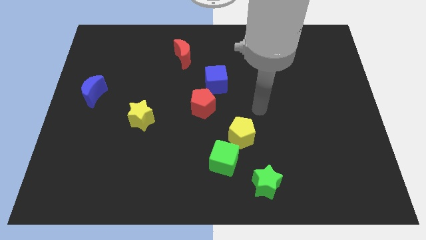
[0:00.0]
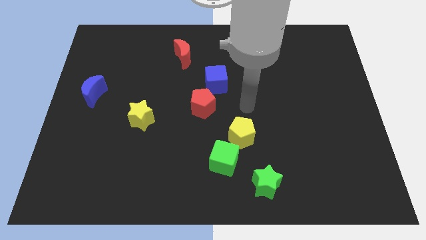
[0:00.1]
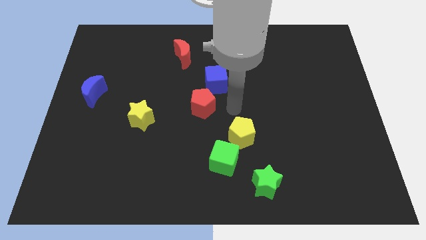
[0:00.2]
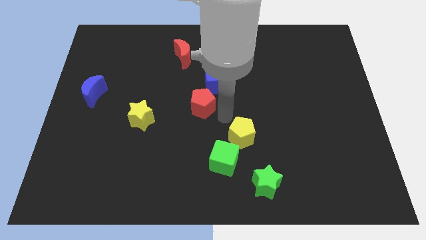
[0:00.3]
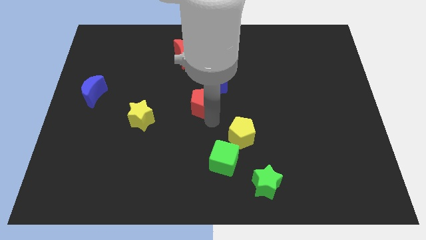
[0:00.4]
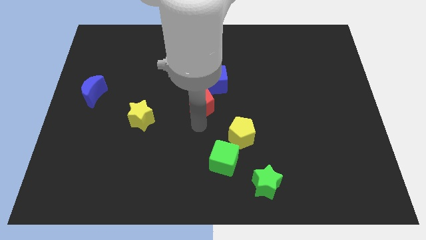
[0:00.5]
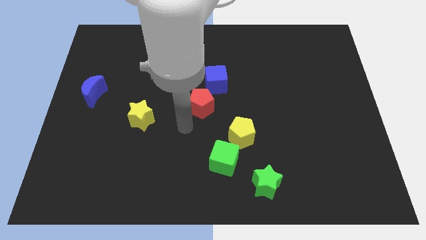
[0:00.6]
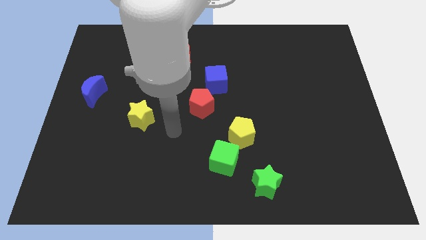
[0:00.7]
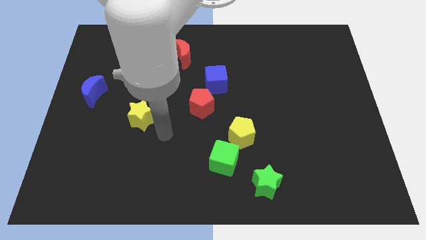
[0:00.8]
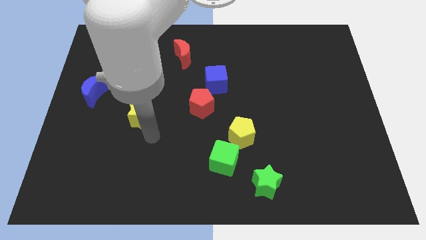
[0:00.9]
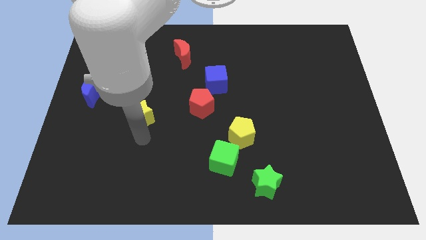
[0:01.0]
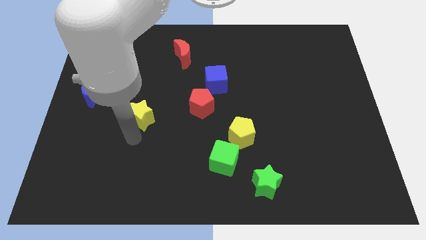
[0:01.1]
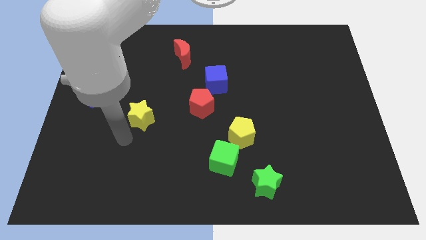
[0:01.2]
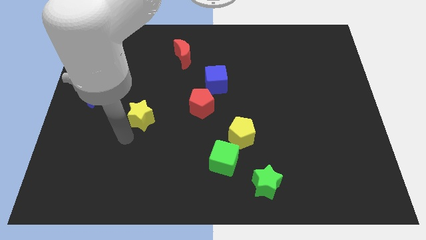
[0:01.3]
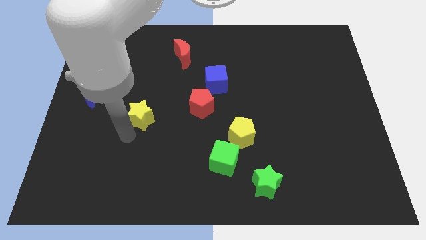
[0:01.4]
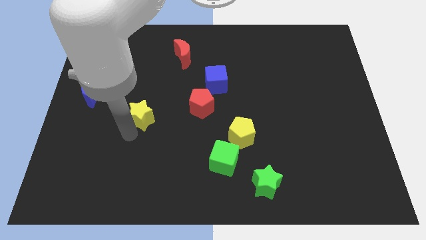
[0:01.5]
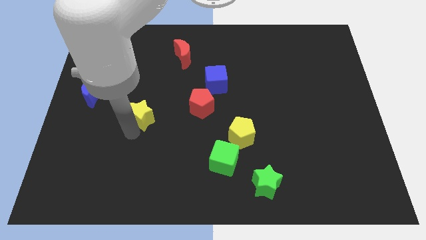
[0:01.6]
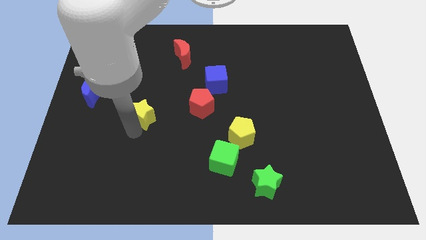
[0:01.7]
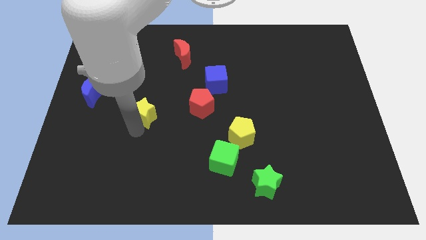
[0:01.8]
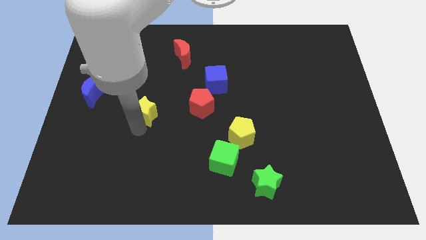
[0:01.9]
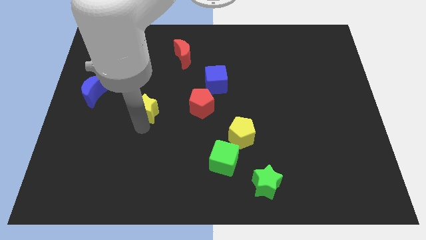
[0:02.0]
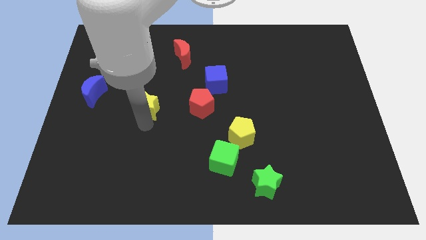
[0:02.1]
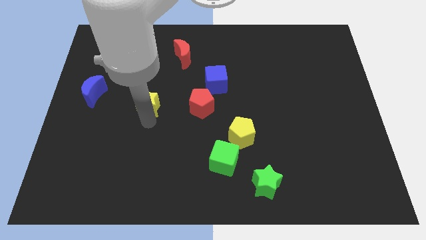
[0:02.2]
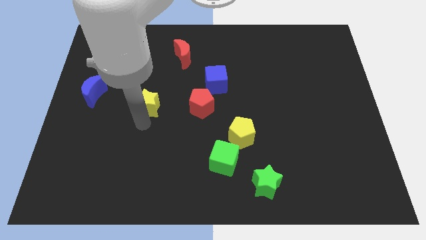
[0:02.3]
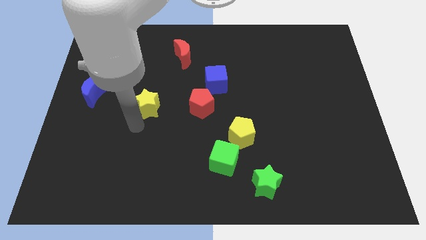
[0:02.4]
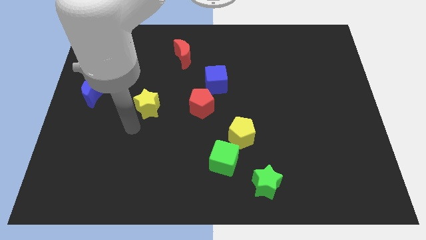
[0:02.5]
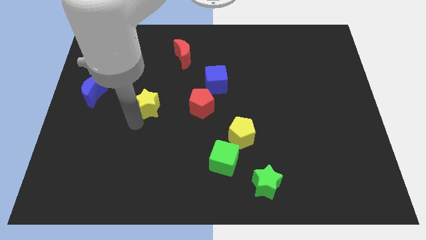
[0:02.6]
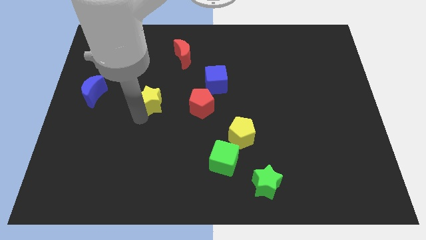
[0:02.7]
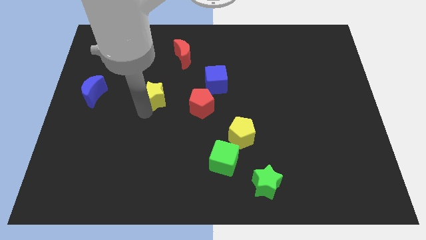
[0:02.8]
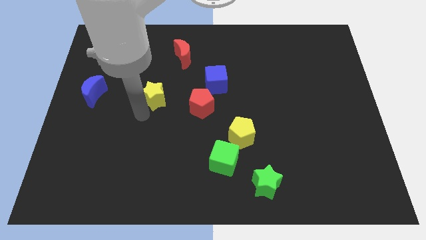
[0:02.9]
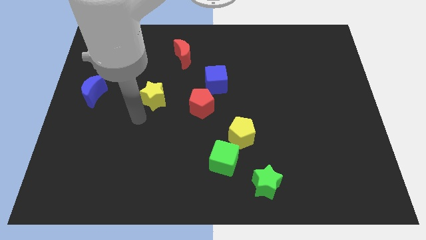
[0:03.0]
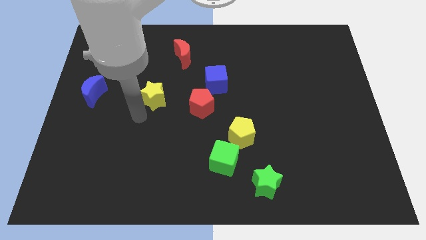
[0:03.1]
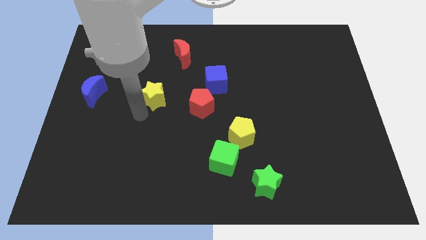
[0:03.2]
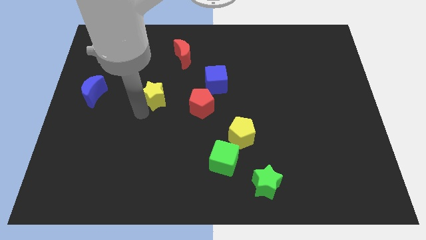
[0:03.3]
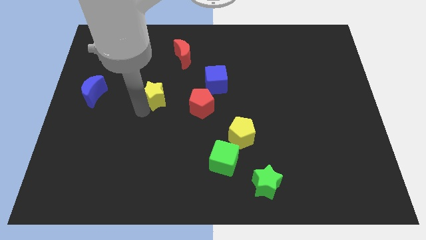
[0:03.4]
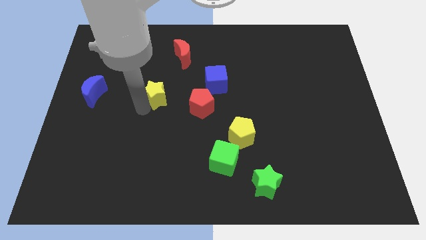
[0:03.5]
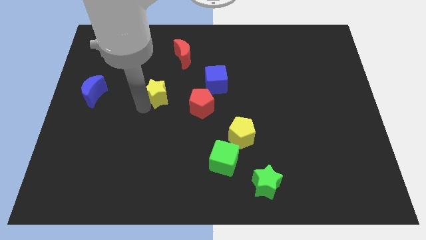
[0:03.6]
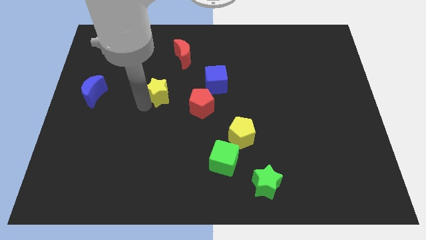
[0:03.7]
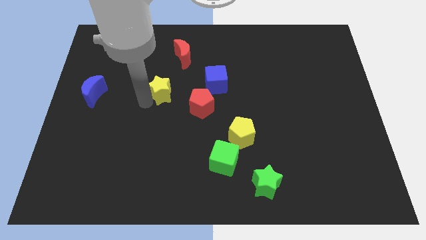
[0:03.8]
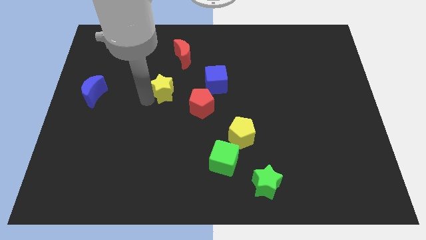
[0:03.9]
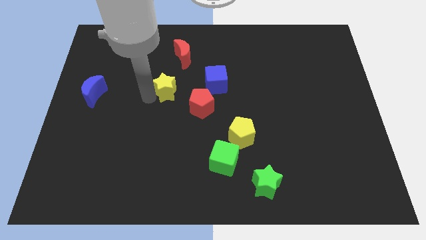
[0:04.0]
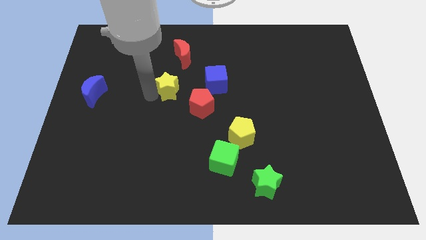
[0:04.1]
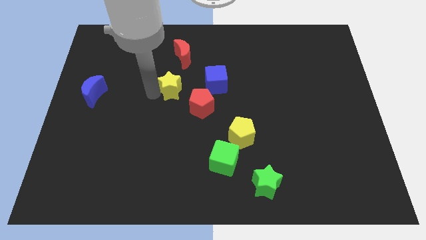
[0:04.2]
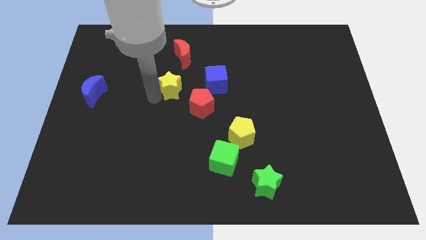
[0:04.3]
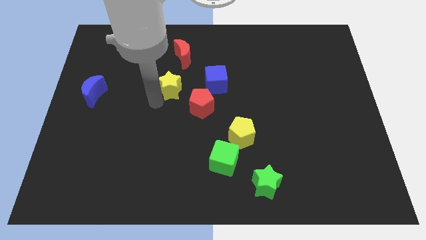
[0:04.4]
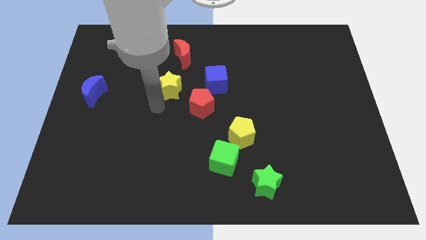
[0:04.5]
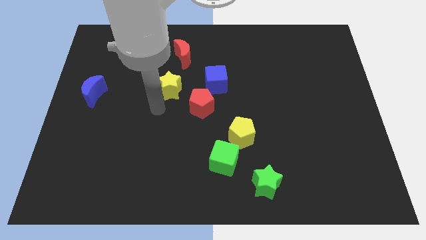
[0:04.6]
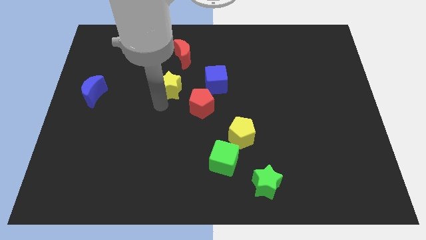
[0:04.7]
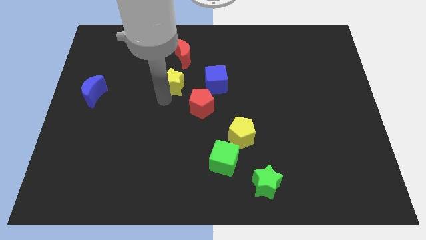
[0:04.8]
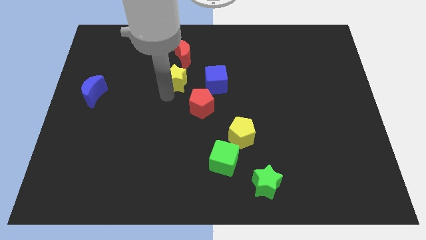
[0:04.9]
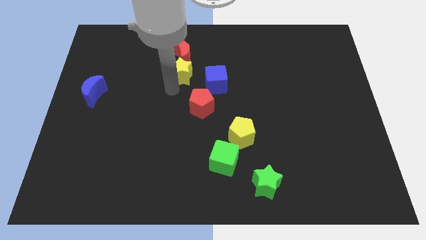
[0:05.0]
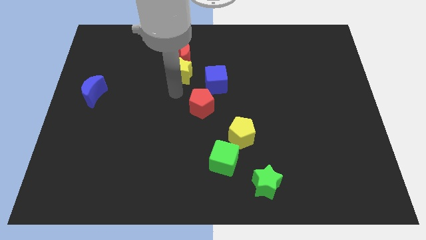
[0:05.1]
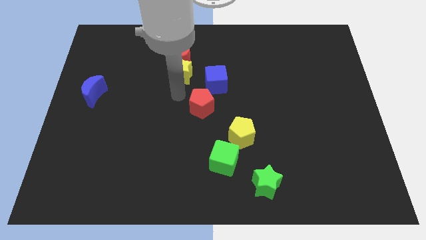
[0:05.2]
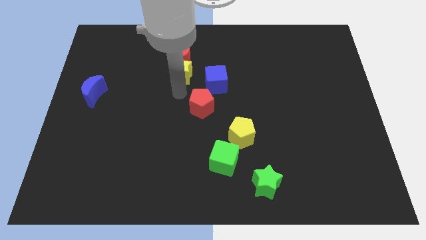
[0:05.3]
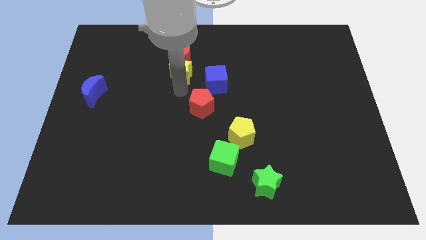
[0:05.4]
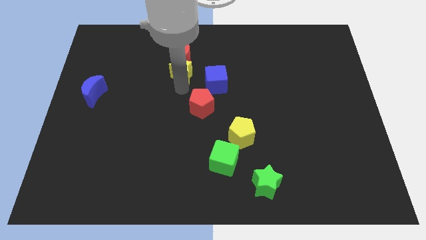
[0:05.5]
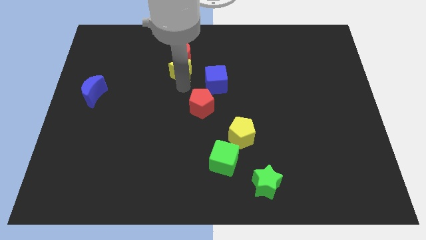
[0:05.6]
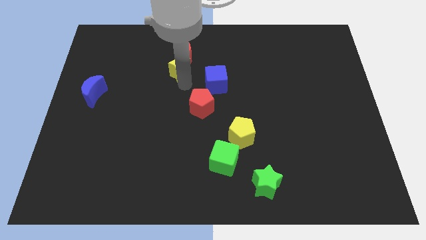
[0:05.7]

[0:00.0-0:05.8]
push the yellow star close to the red moon

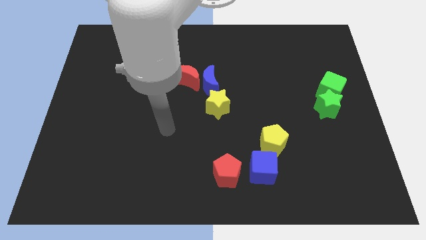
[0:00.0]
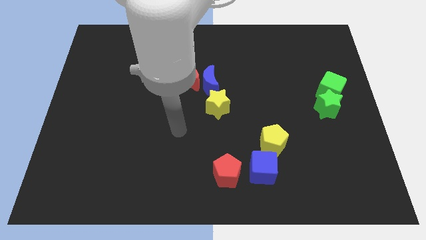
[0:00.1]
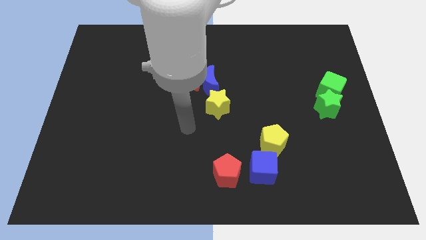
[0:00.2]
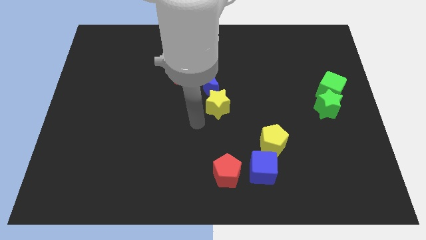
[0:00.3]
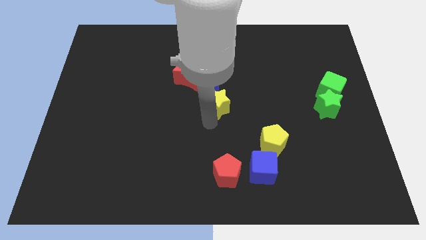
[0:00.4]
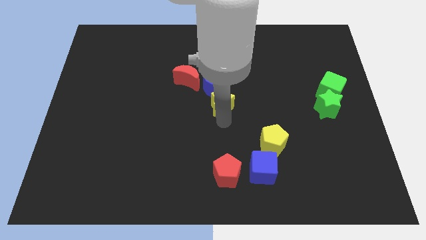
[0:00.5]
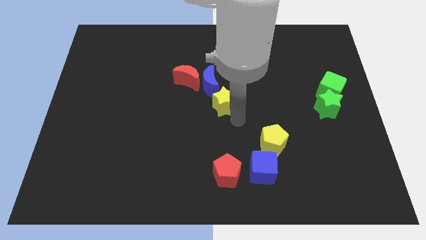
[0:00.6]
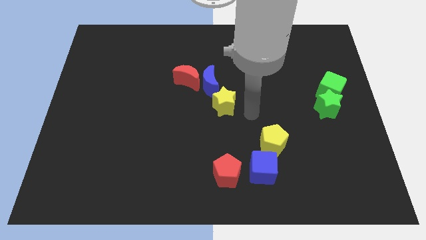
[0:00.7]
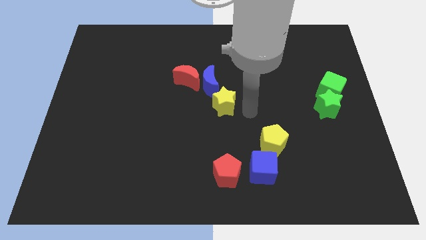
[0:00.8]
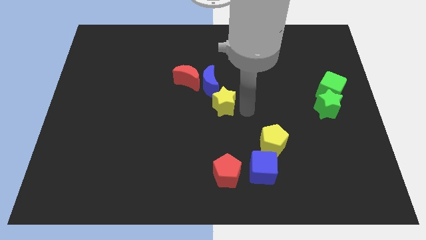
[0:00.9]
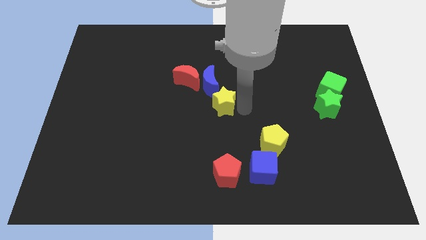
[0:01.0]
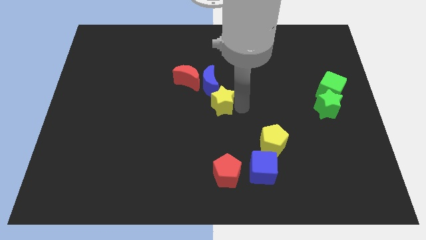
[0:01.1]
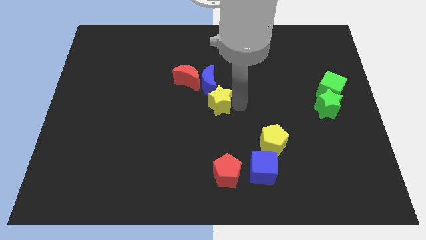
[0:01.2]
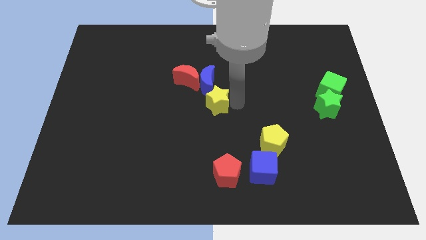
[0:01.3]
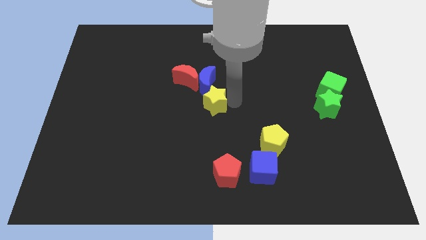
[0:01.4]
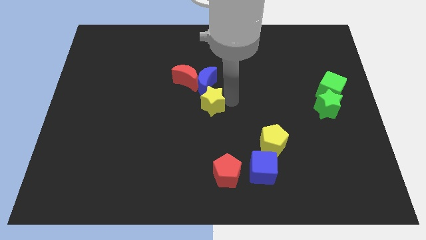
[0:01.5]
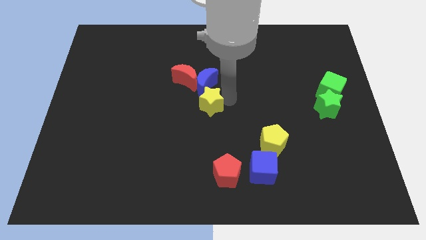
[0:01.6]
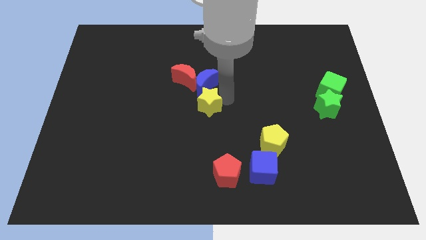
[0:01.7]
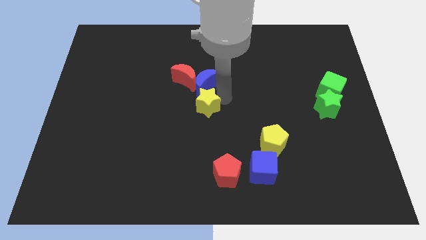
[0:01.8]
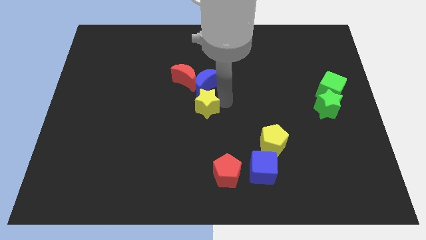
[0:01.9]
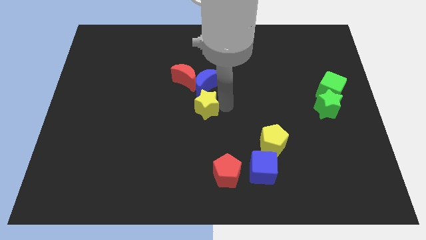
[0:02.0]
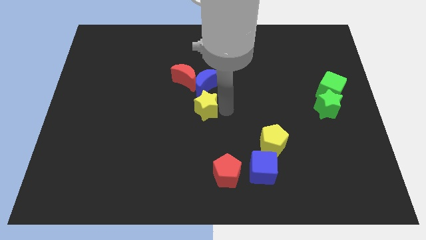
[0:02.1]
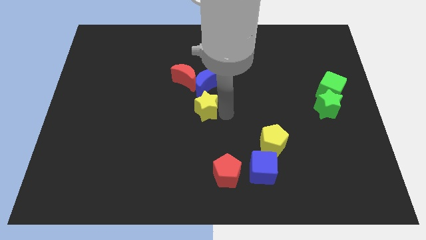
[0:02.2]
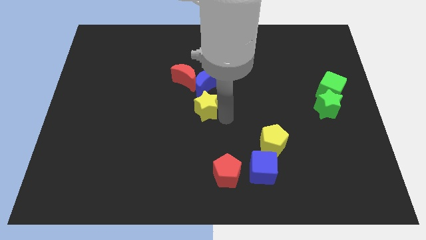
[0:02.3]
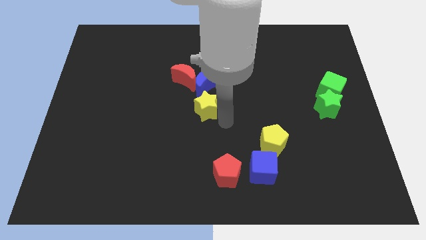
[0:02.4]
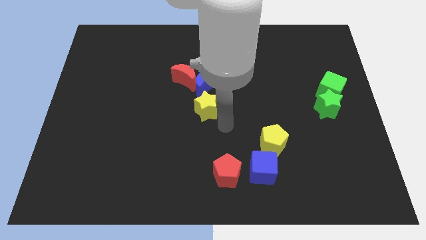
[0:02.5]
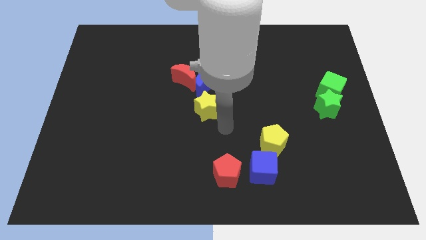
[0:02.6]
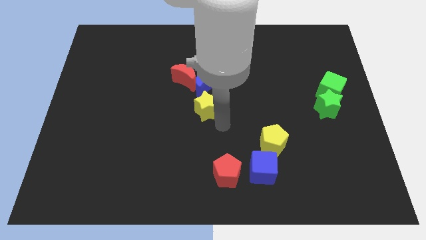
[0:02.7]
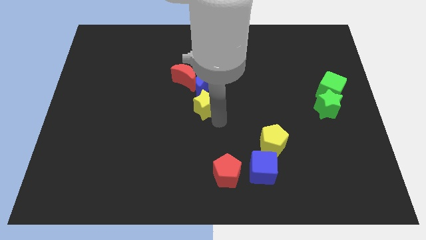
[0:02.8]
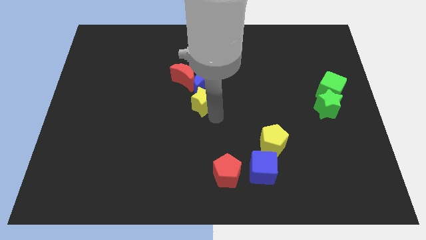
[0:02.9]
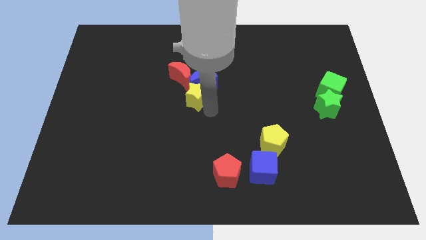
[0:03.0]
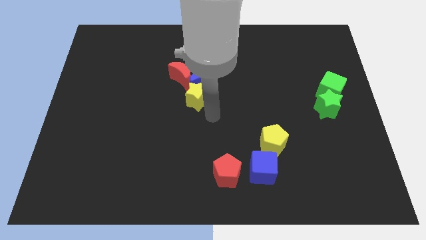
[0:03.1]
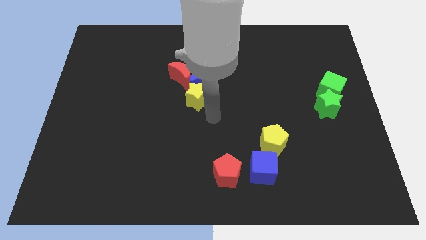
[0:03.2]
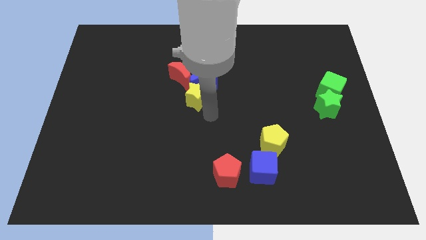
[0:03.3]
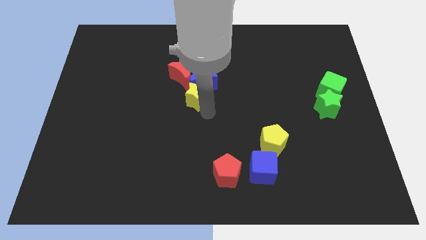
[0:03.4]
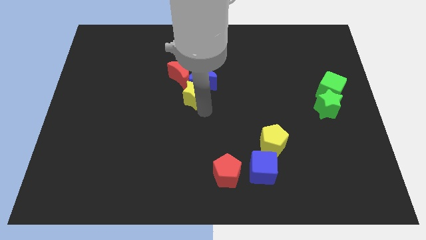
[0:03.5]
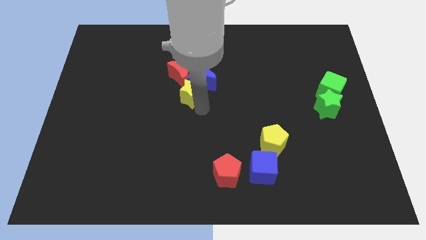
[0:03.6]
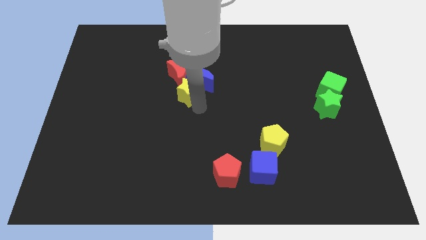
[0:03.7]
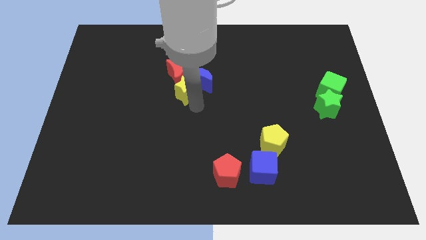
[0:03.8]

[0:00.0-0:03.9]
move the yellow star towards the red moon
